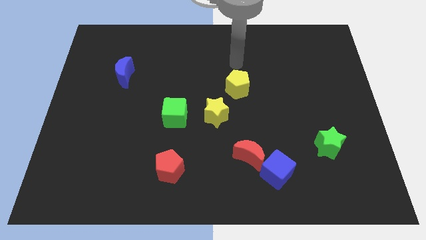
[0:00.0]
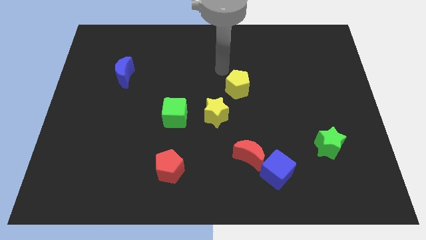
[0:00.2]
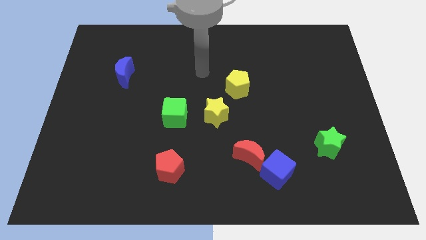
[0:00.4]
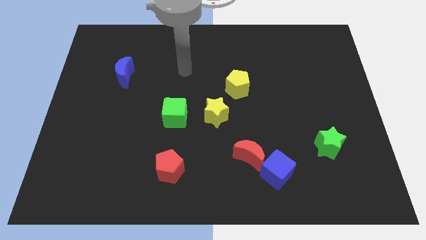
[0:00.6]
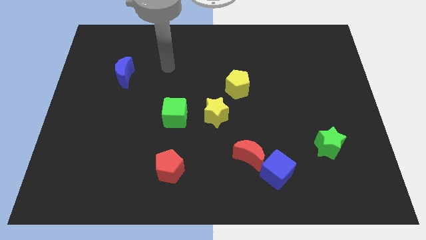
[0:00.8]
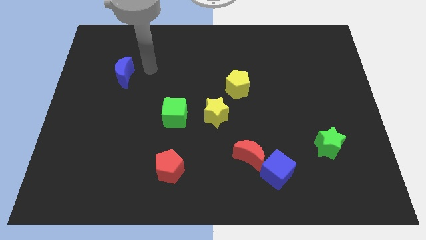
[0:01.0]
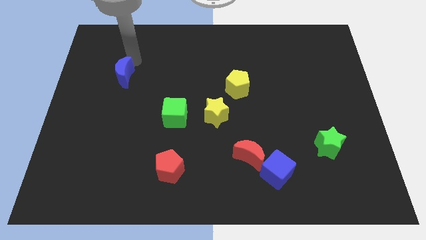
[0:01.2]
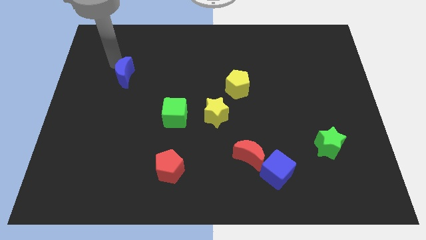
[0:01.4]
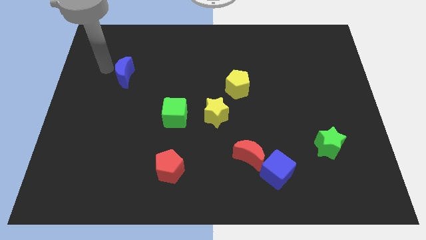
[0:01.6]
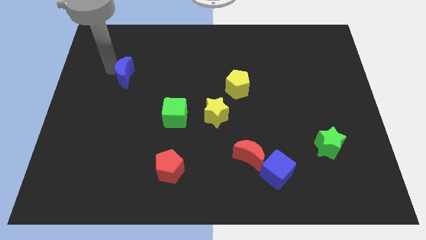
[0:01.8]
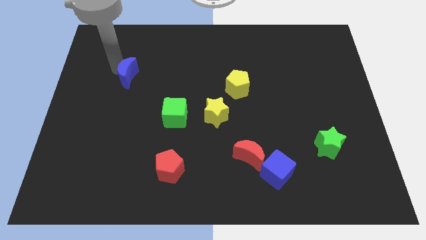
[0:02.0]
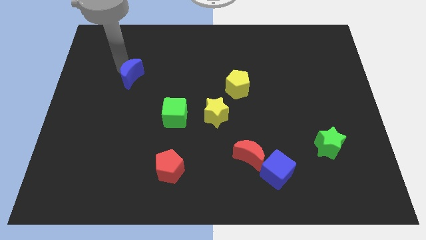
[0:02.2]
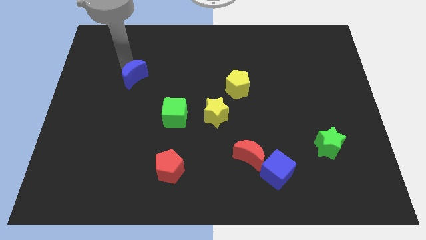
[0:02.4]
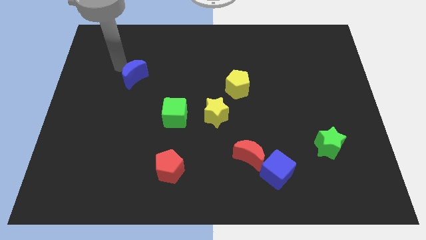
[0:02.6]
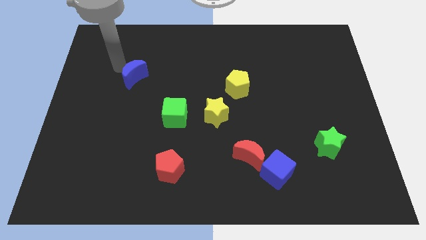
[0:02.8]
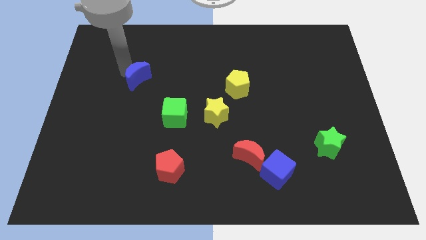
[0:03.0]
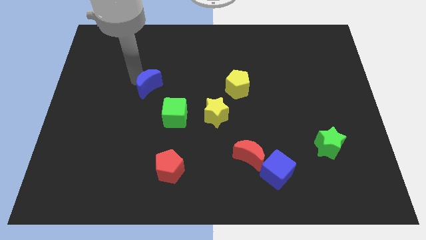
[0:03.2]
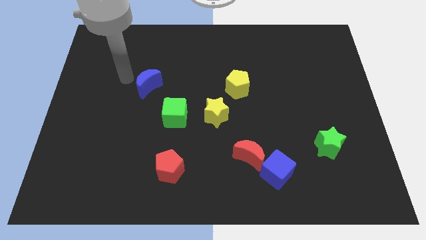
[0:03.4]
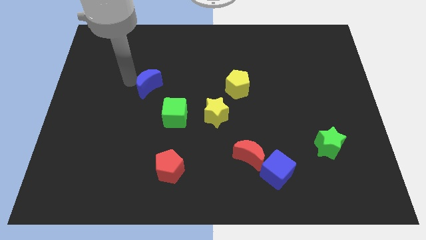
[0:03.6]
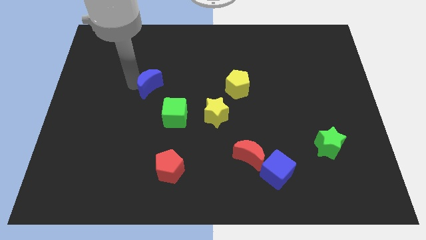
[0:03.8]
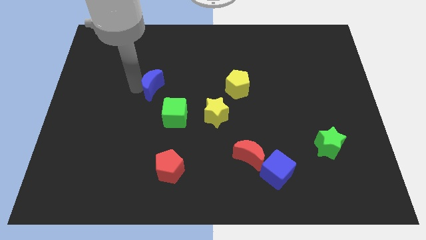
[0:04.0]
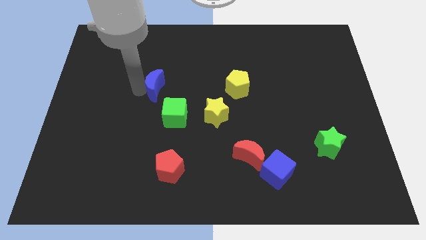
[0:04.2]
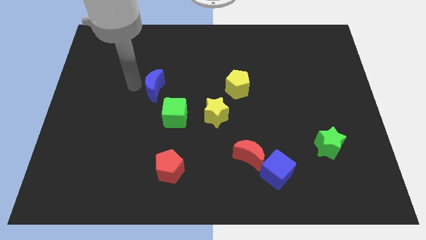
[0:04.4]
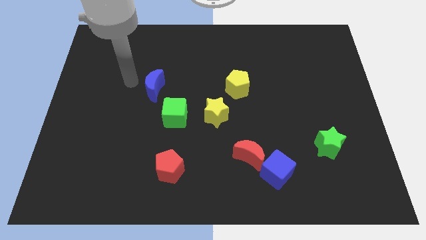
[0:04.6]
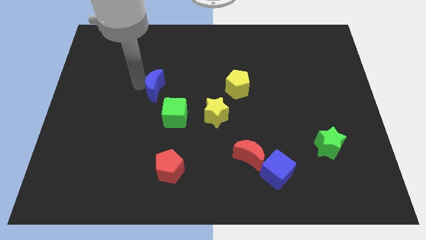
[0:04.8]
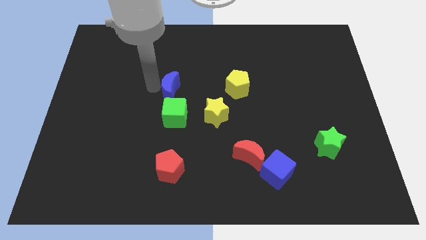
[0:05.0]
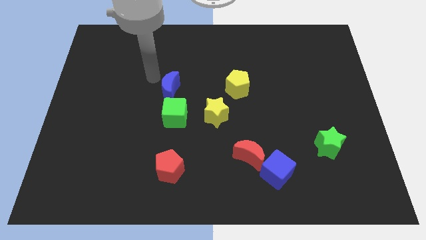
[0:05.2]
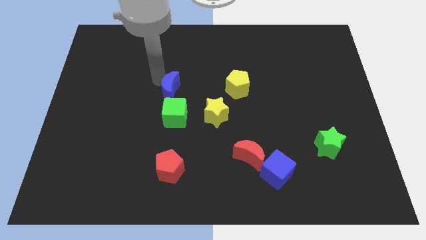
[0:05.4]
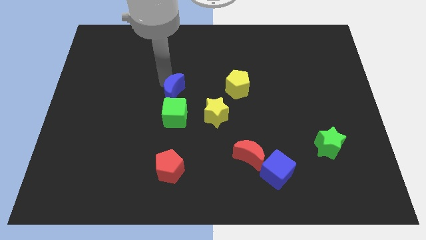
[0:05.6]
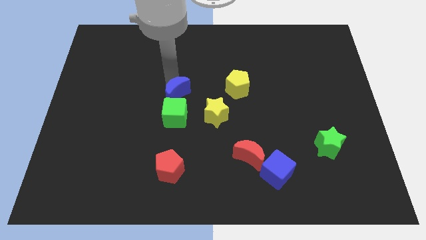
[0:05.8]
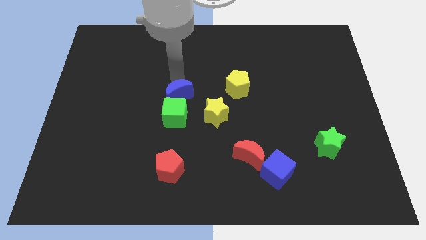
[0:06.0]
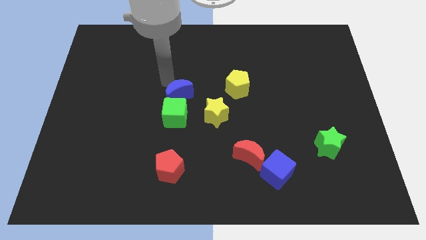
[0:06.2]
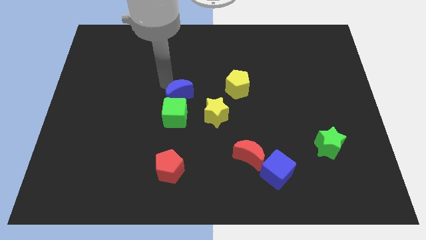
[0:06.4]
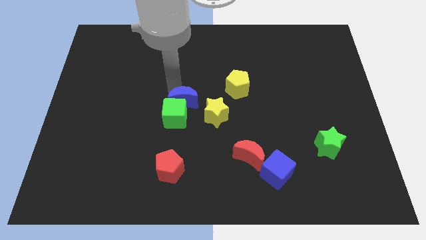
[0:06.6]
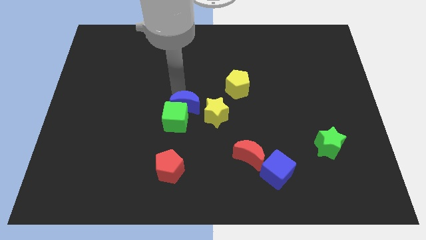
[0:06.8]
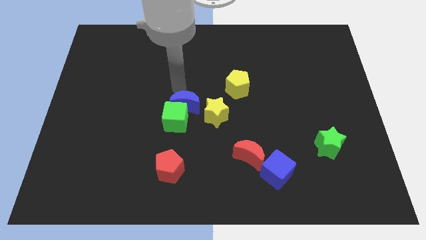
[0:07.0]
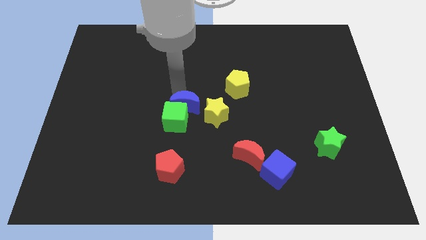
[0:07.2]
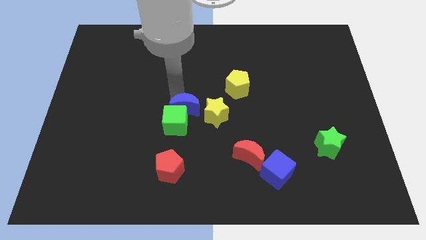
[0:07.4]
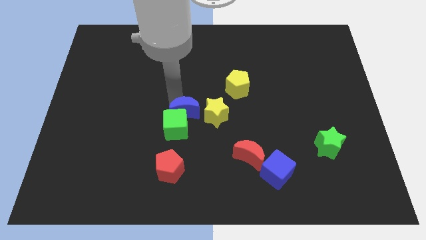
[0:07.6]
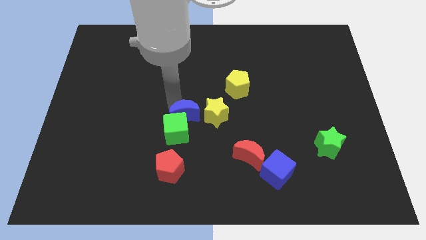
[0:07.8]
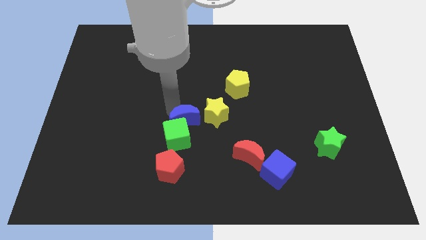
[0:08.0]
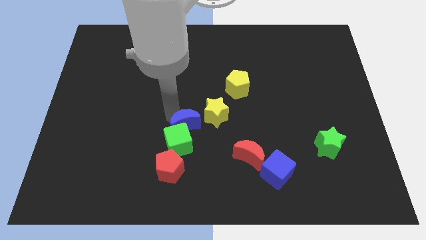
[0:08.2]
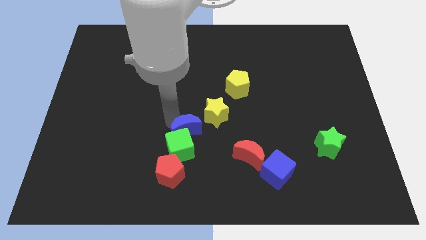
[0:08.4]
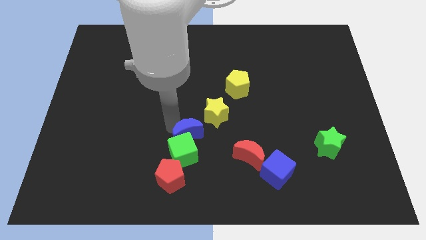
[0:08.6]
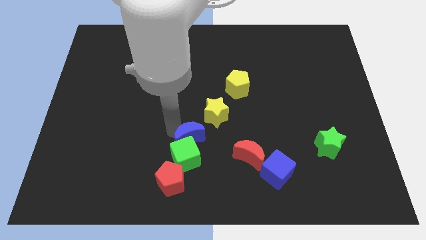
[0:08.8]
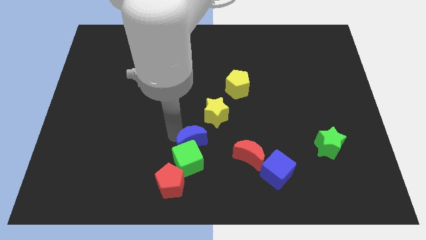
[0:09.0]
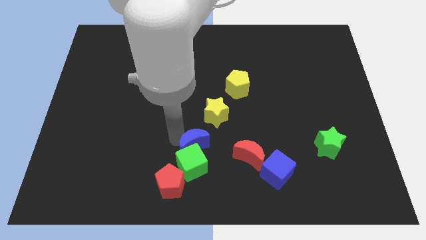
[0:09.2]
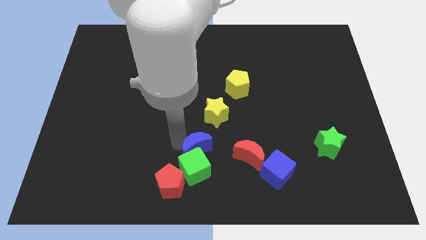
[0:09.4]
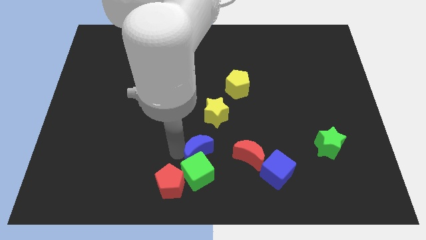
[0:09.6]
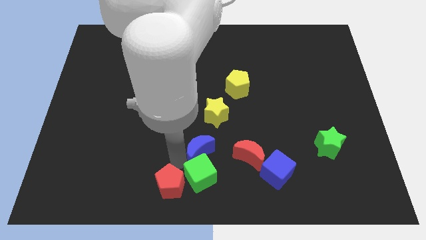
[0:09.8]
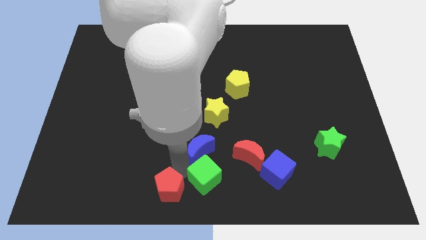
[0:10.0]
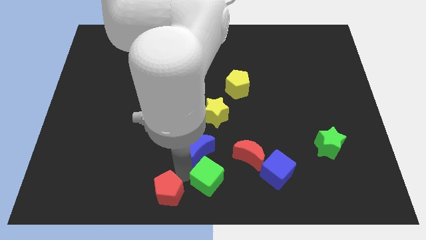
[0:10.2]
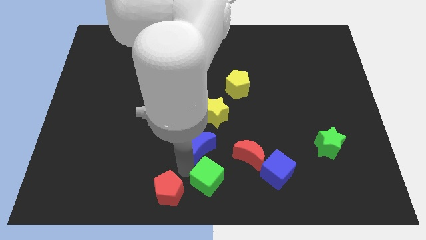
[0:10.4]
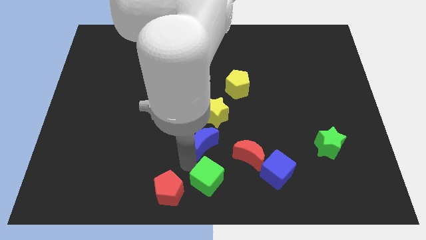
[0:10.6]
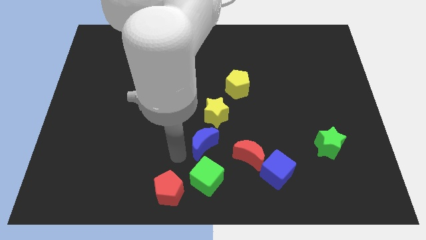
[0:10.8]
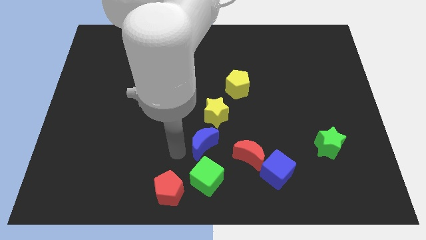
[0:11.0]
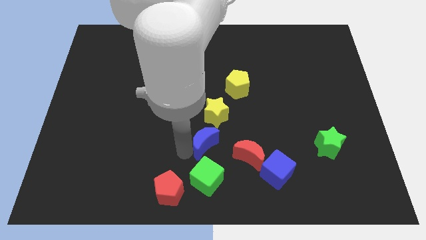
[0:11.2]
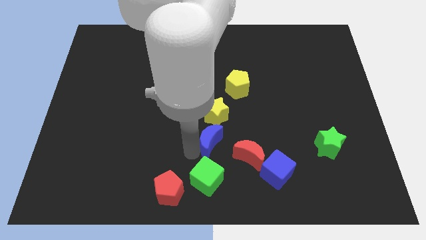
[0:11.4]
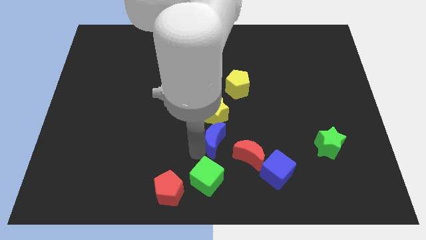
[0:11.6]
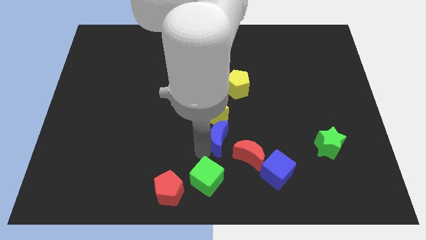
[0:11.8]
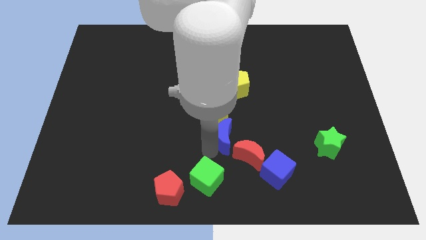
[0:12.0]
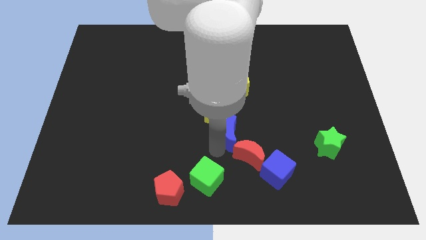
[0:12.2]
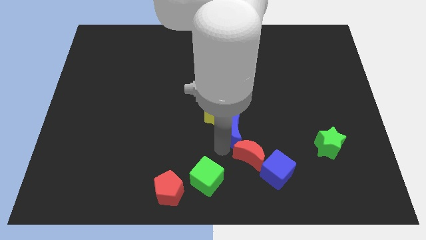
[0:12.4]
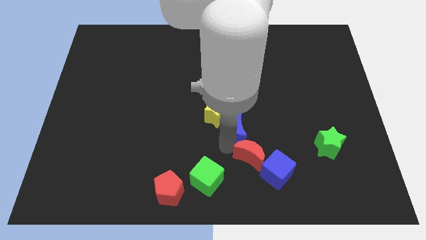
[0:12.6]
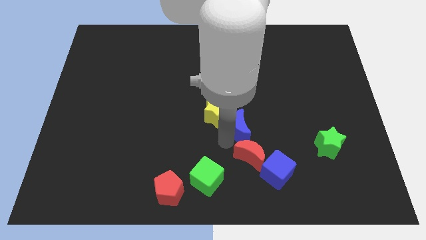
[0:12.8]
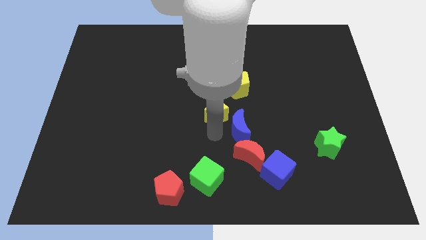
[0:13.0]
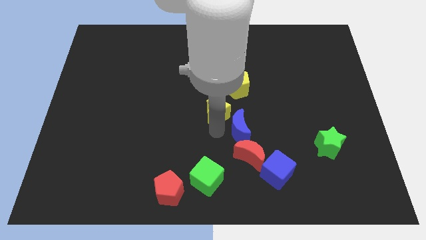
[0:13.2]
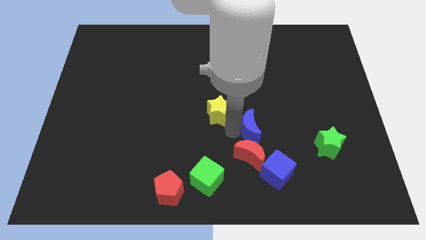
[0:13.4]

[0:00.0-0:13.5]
slide the blue moon to the top side of the blue cube

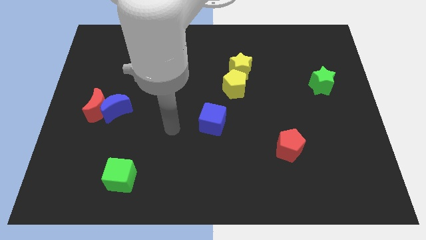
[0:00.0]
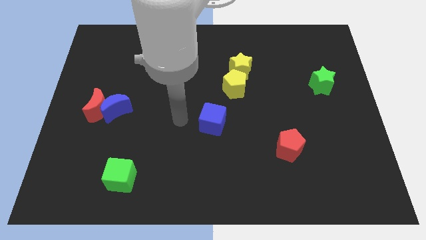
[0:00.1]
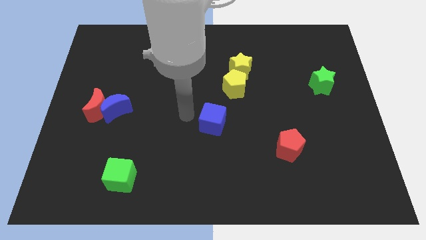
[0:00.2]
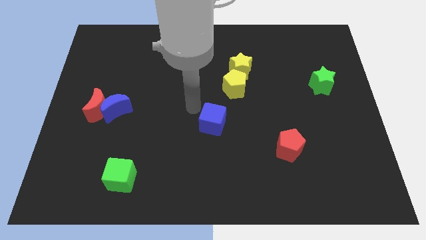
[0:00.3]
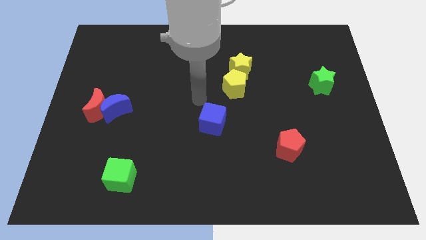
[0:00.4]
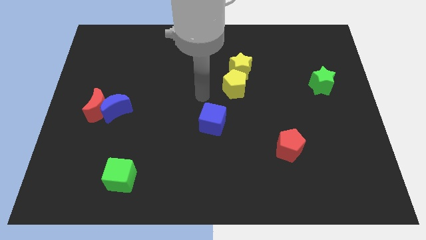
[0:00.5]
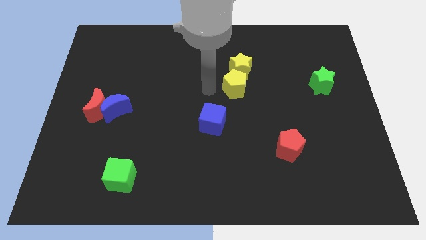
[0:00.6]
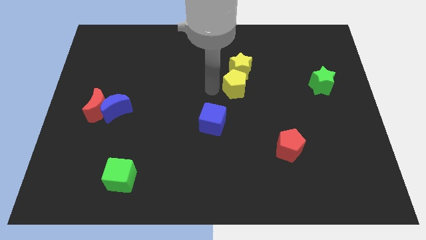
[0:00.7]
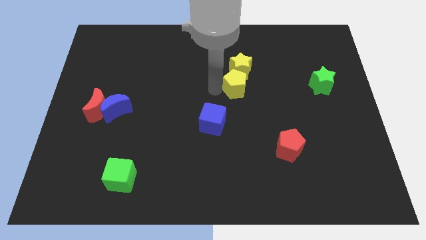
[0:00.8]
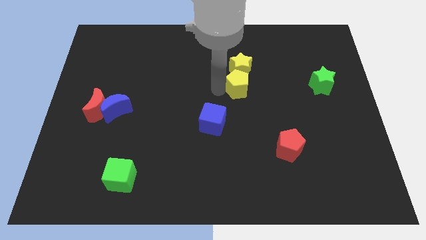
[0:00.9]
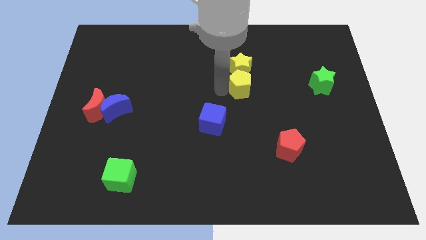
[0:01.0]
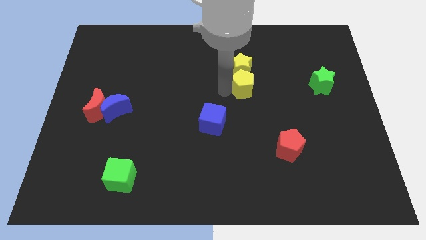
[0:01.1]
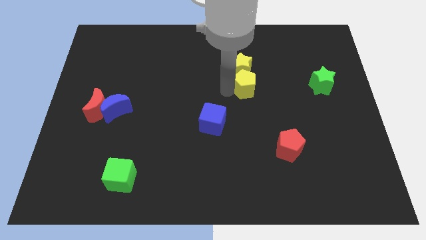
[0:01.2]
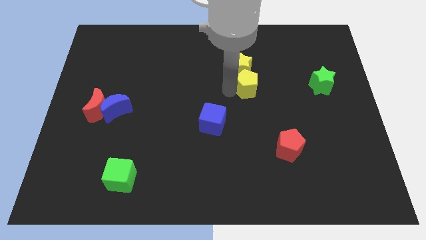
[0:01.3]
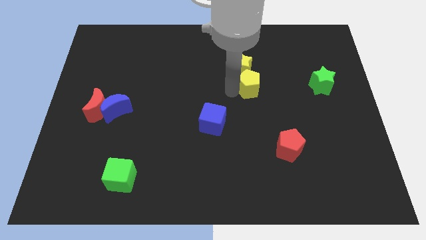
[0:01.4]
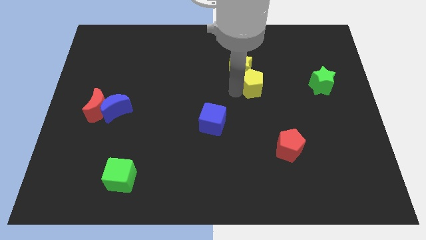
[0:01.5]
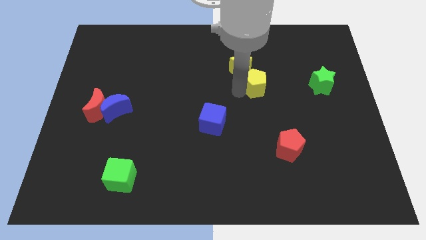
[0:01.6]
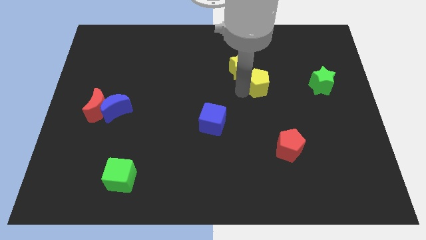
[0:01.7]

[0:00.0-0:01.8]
push the yellow pentagon to the left side of the green star
